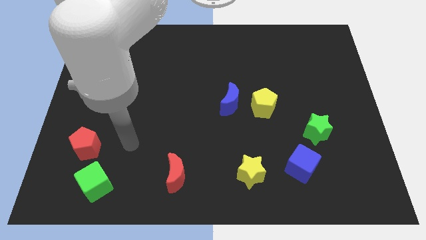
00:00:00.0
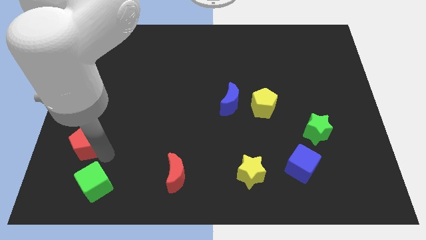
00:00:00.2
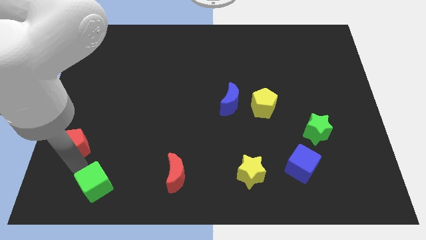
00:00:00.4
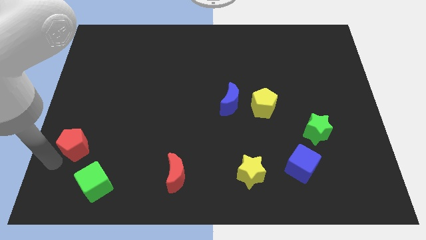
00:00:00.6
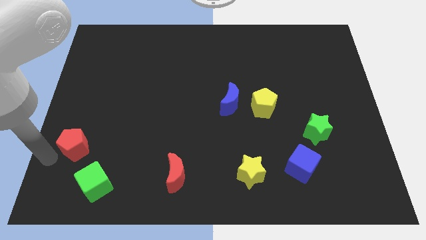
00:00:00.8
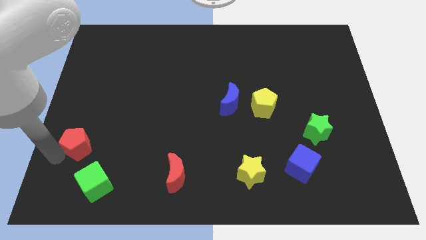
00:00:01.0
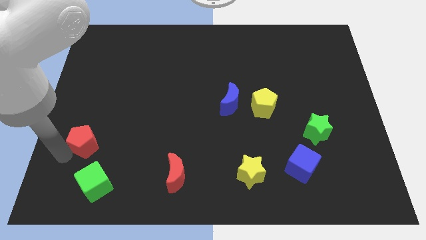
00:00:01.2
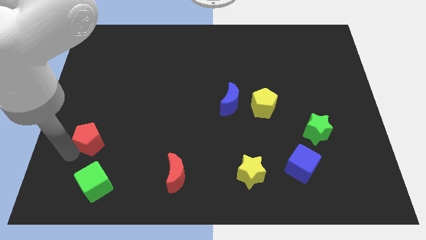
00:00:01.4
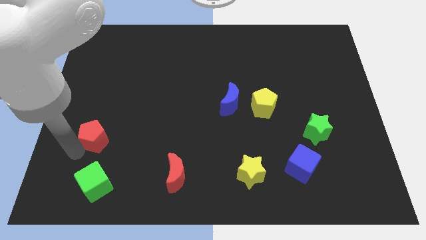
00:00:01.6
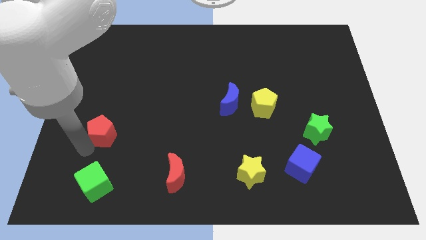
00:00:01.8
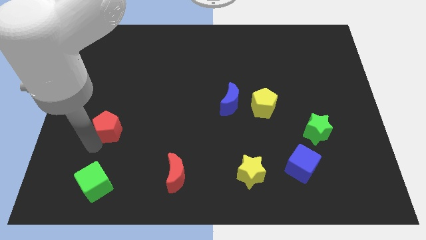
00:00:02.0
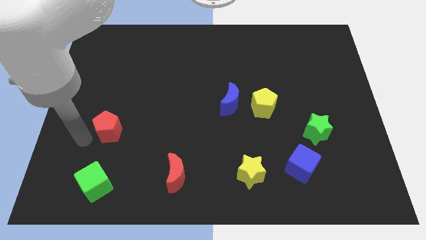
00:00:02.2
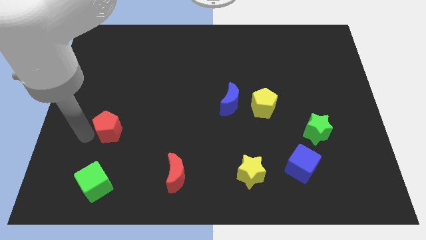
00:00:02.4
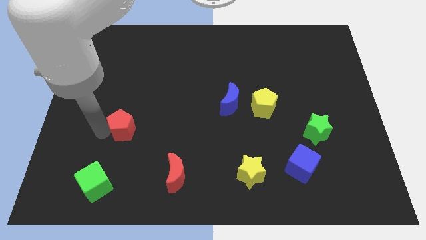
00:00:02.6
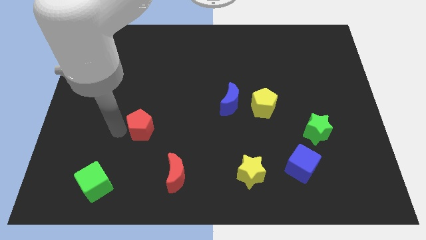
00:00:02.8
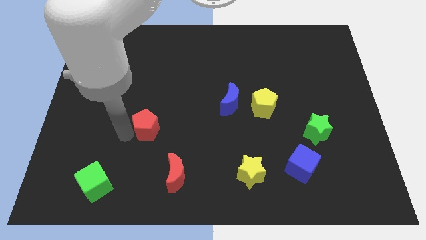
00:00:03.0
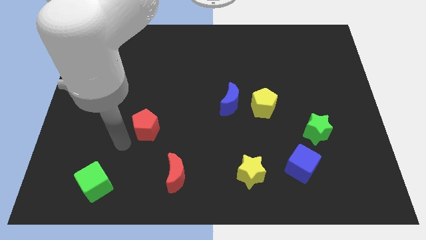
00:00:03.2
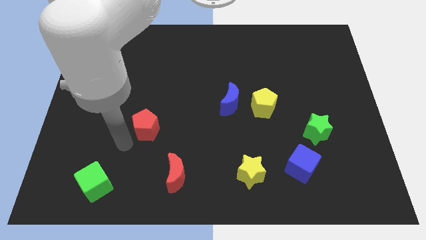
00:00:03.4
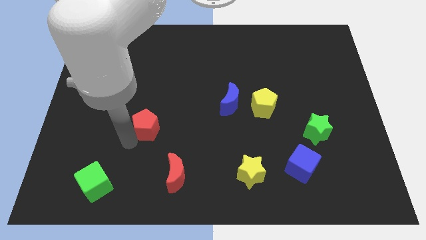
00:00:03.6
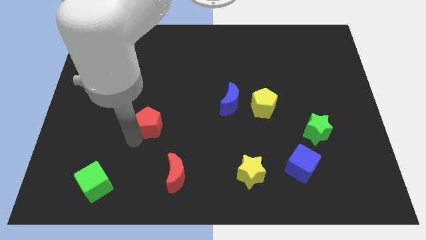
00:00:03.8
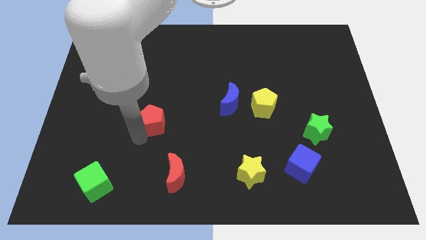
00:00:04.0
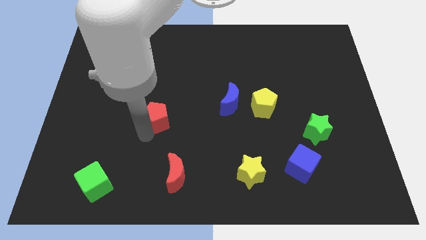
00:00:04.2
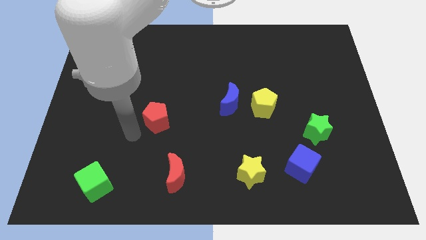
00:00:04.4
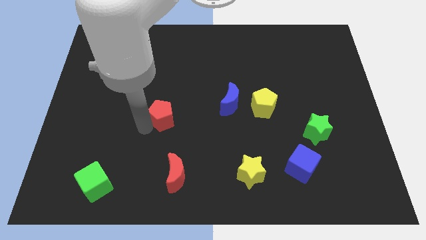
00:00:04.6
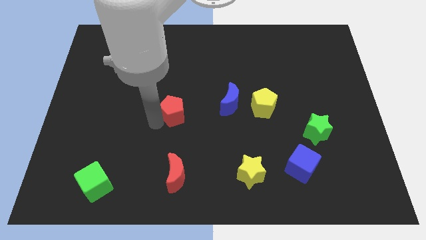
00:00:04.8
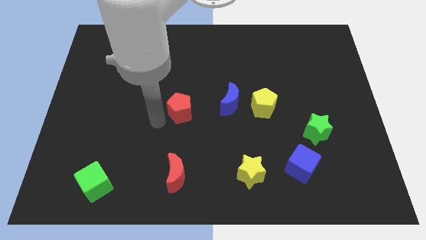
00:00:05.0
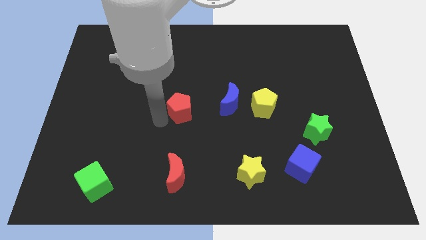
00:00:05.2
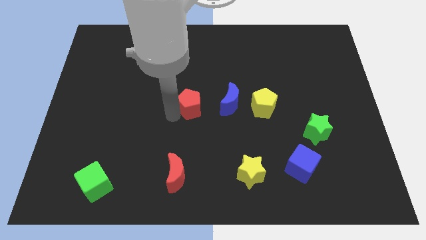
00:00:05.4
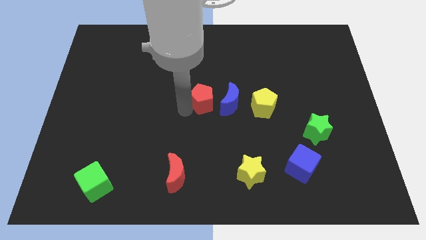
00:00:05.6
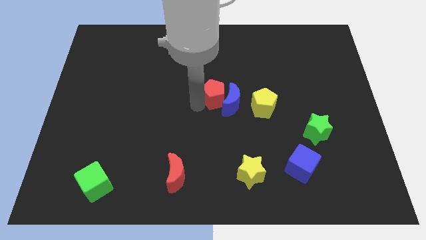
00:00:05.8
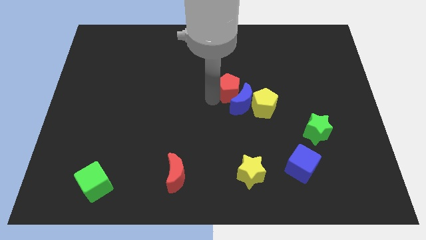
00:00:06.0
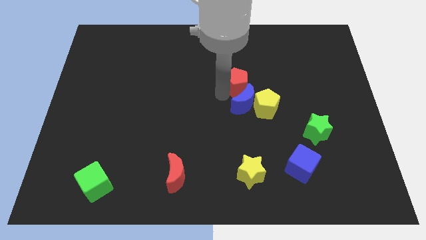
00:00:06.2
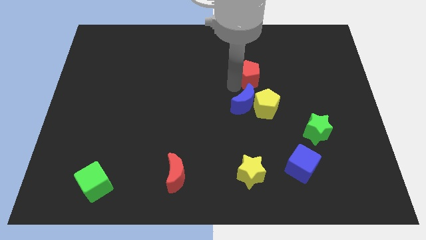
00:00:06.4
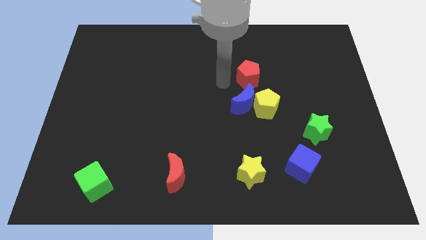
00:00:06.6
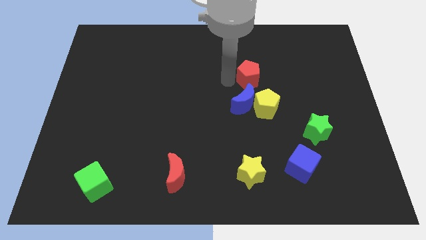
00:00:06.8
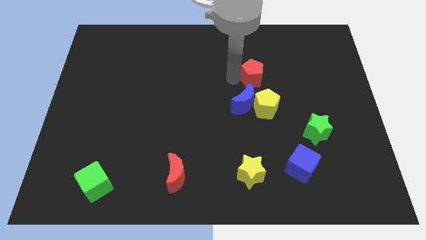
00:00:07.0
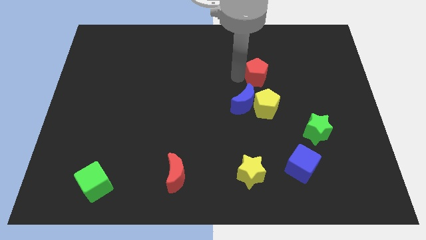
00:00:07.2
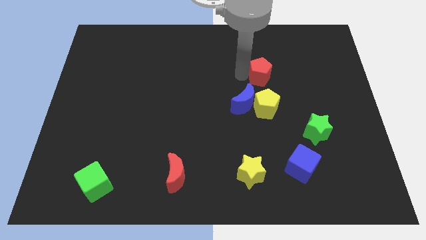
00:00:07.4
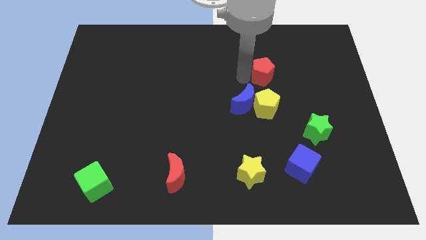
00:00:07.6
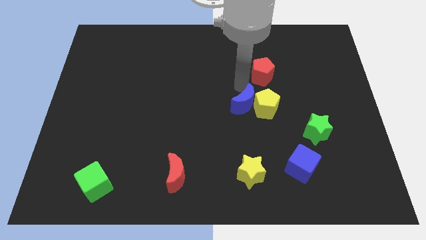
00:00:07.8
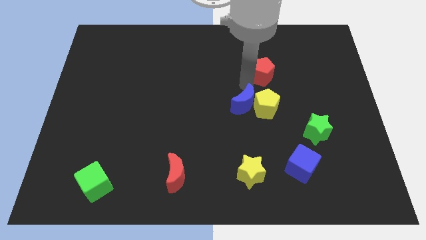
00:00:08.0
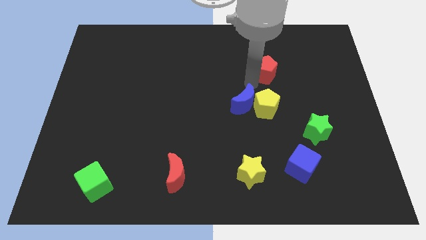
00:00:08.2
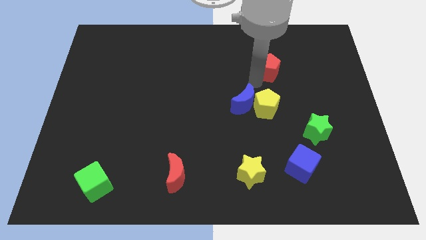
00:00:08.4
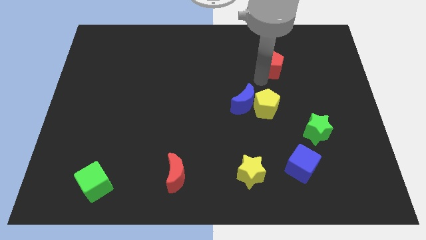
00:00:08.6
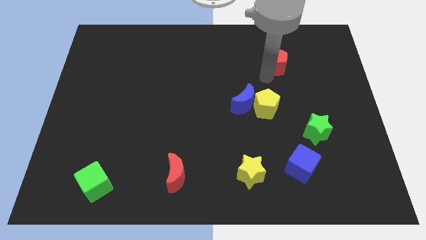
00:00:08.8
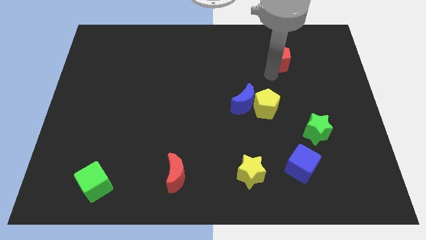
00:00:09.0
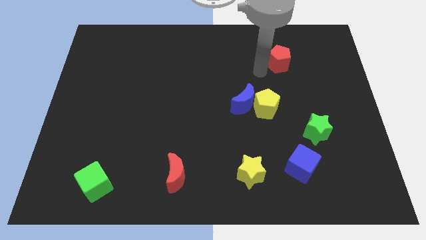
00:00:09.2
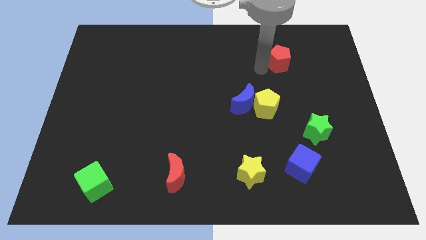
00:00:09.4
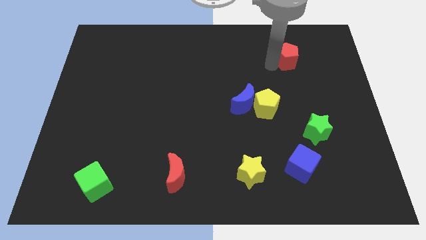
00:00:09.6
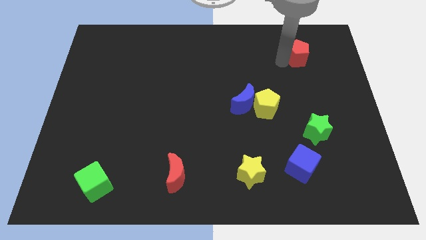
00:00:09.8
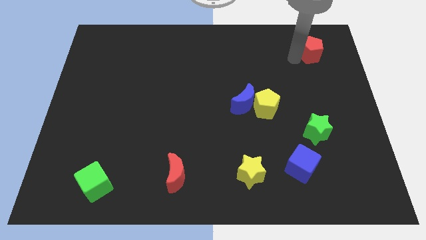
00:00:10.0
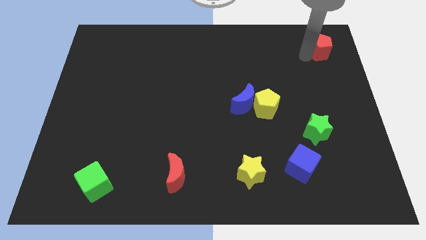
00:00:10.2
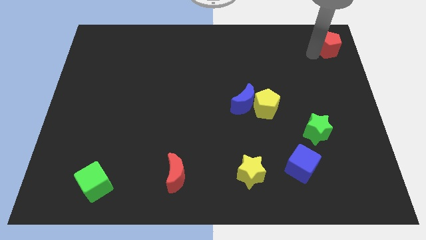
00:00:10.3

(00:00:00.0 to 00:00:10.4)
move the red pentagon to the top right corner

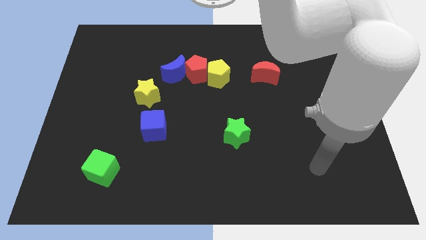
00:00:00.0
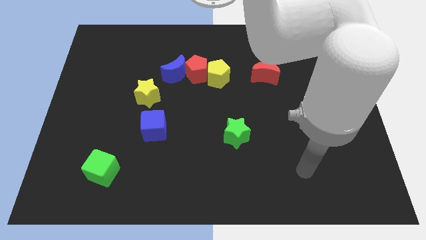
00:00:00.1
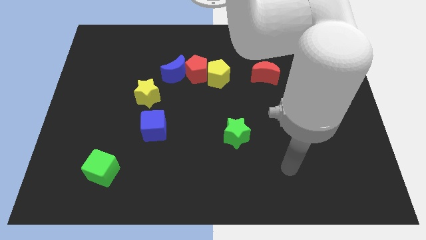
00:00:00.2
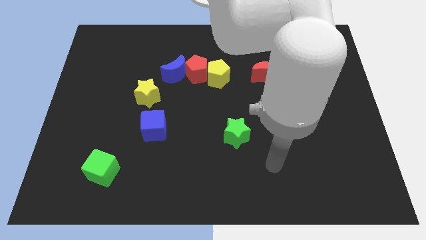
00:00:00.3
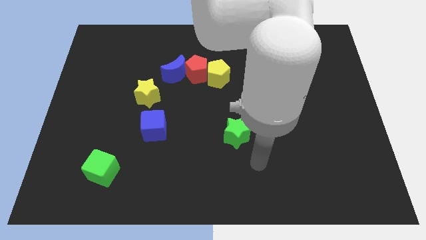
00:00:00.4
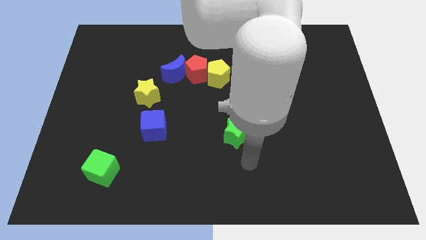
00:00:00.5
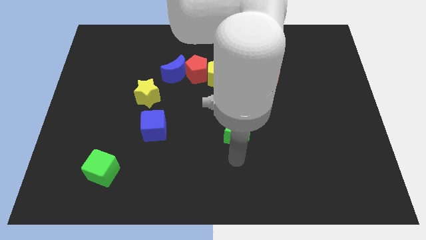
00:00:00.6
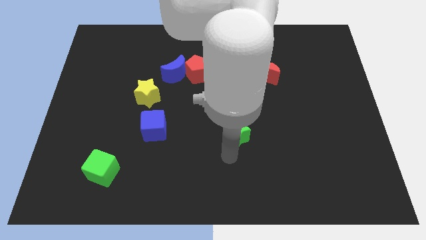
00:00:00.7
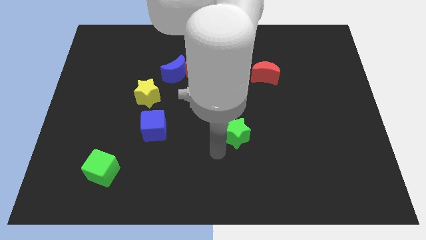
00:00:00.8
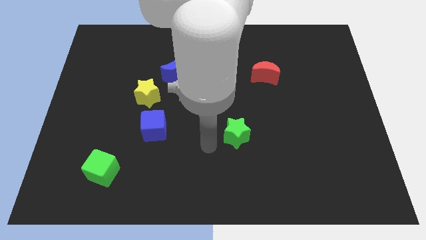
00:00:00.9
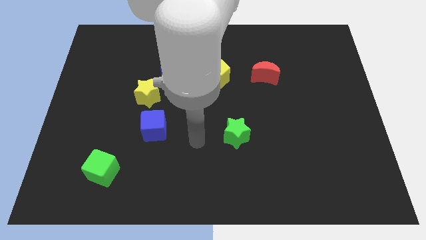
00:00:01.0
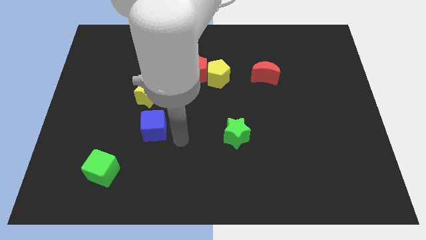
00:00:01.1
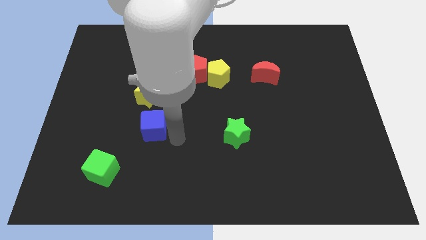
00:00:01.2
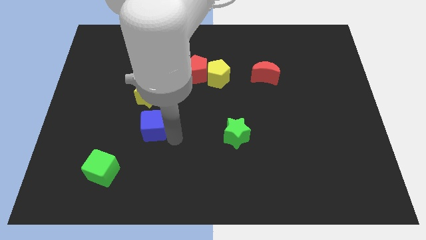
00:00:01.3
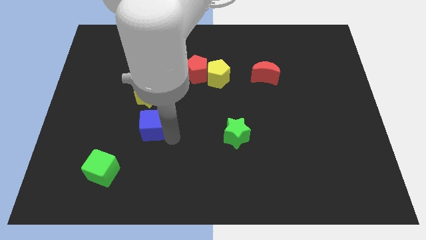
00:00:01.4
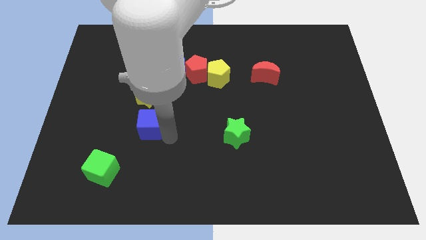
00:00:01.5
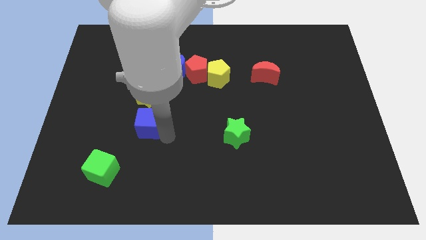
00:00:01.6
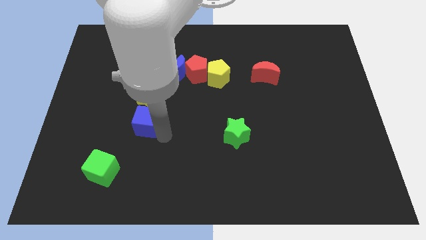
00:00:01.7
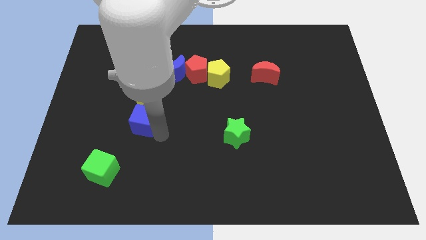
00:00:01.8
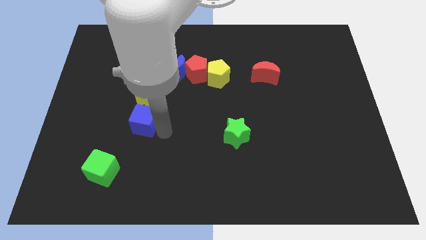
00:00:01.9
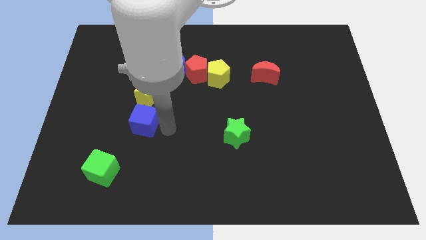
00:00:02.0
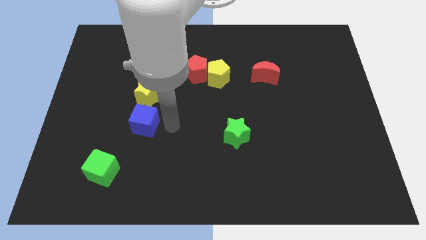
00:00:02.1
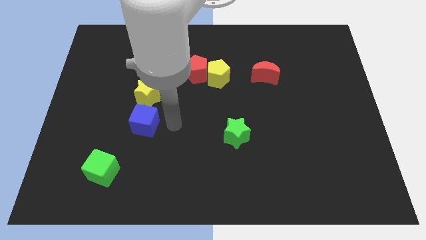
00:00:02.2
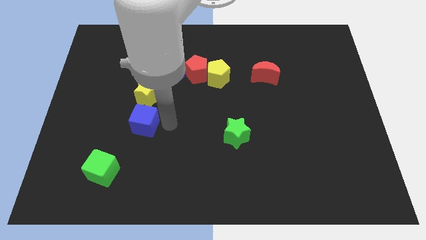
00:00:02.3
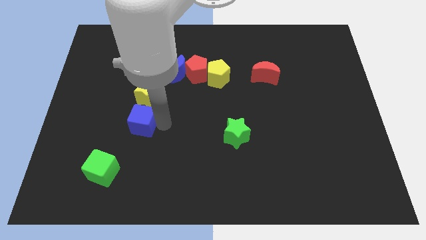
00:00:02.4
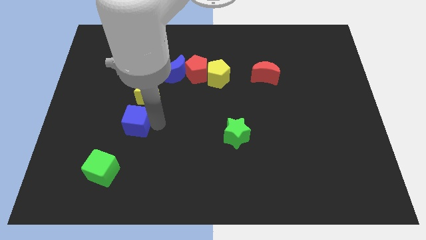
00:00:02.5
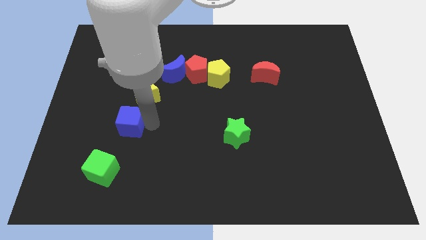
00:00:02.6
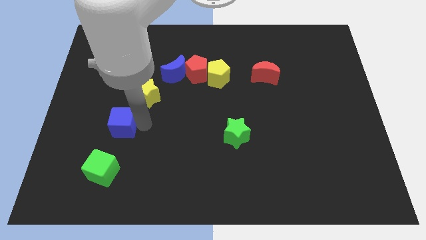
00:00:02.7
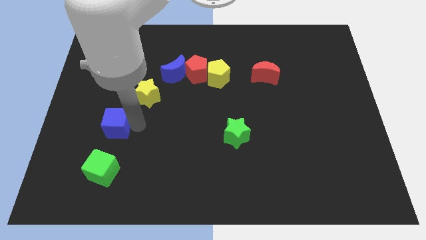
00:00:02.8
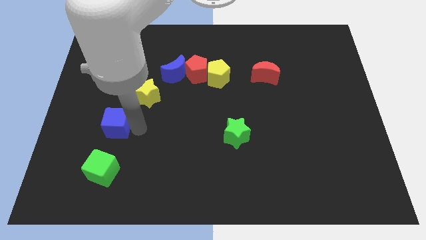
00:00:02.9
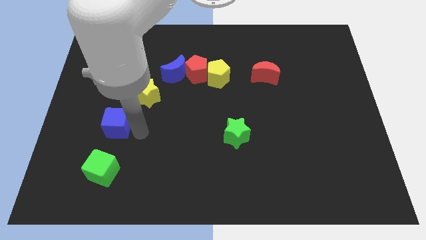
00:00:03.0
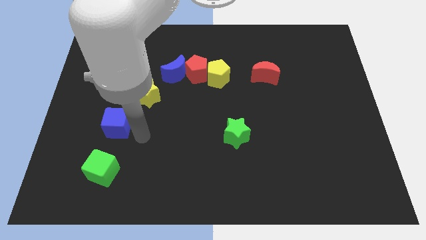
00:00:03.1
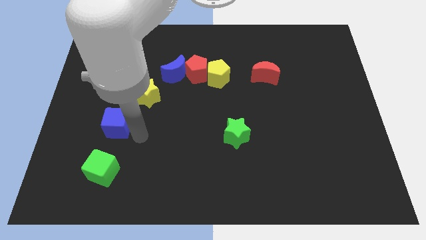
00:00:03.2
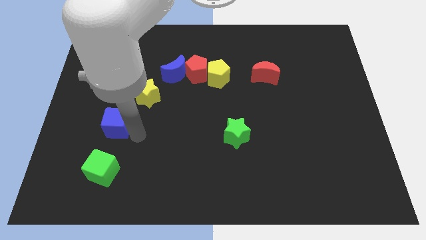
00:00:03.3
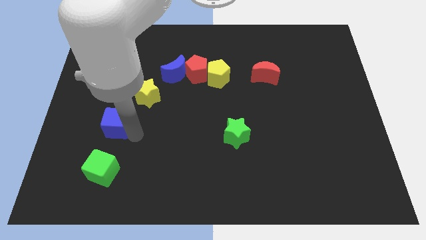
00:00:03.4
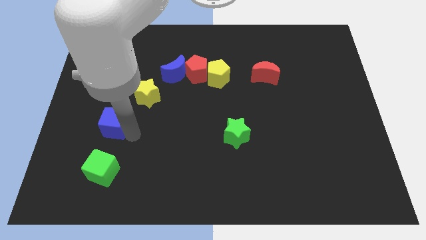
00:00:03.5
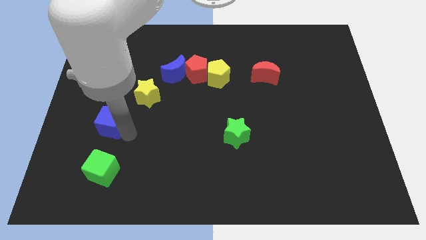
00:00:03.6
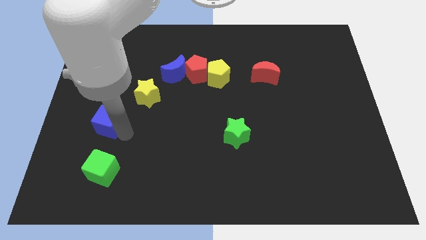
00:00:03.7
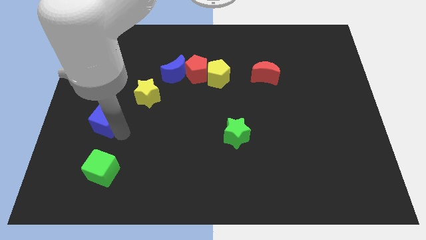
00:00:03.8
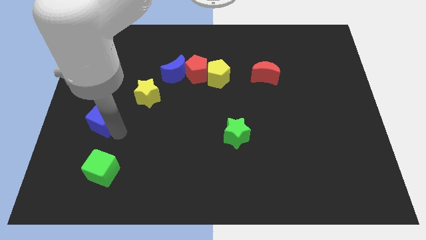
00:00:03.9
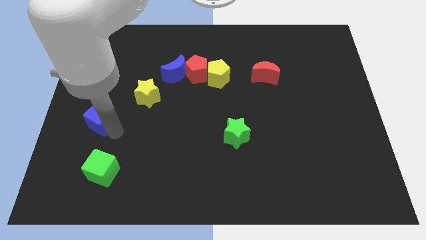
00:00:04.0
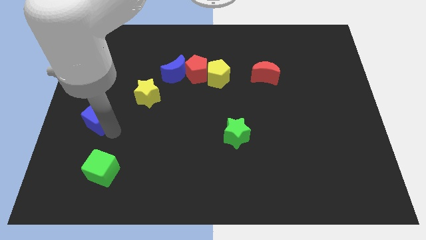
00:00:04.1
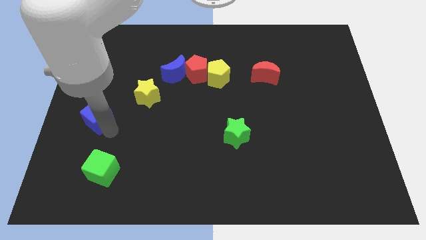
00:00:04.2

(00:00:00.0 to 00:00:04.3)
move the blue cube to the center left
